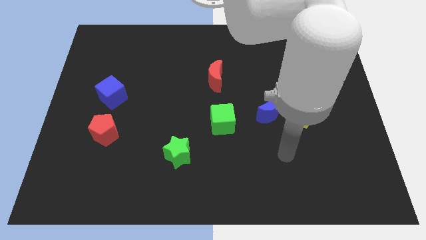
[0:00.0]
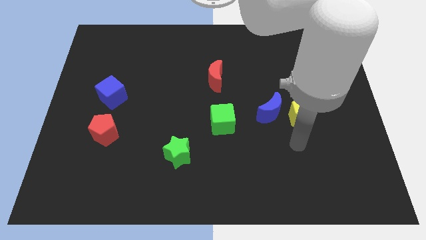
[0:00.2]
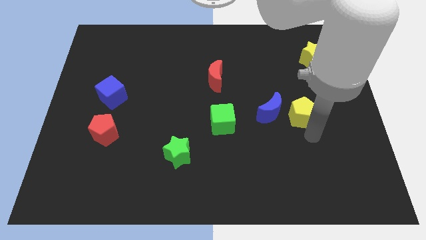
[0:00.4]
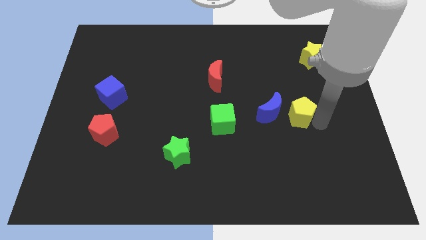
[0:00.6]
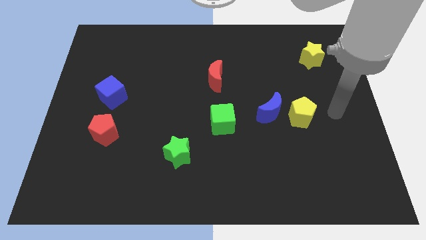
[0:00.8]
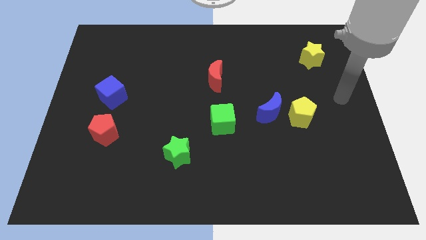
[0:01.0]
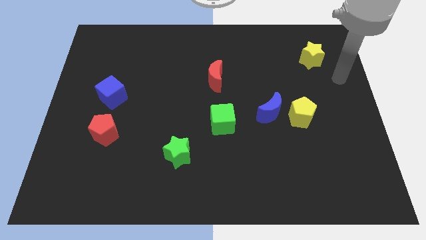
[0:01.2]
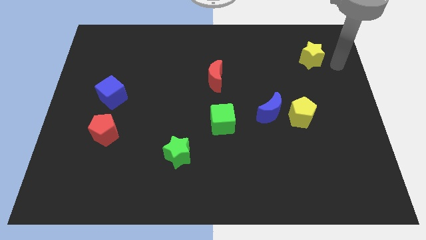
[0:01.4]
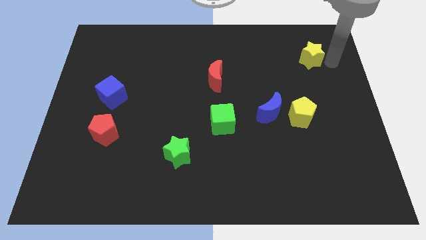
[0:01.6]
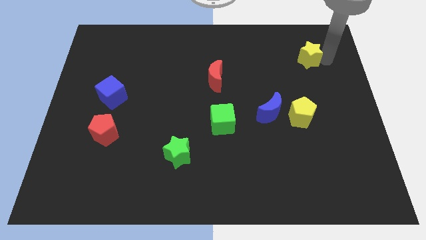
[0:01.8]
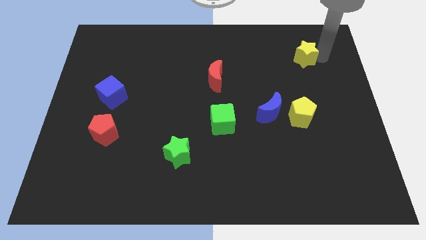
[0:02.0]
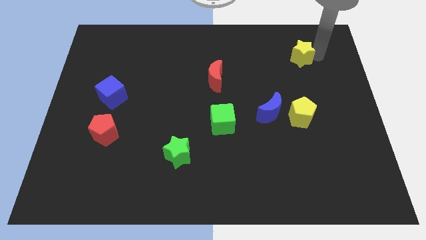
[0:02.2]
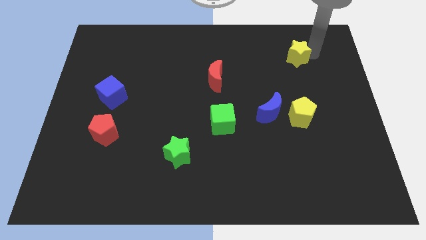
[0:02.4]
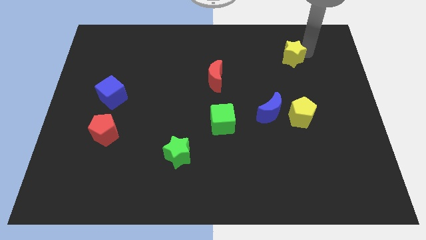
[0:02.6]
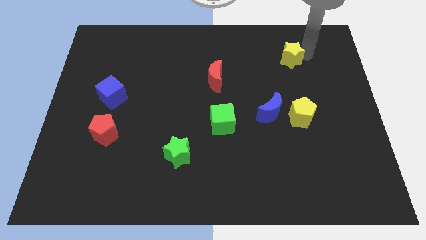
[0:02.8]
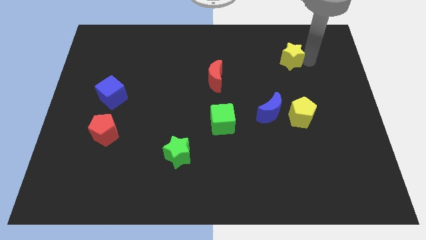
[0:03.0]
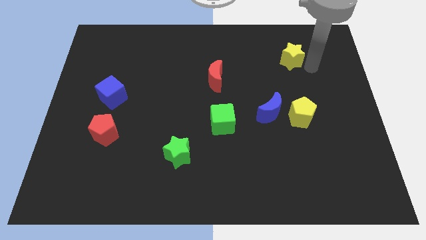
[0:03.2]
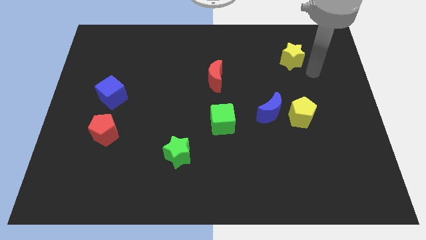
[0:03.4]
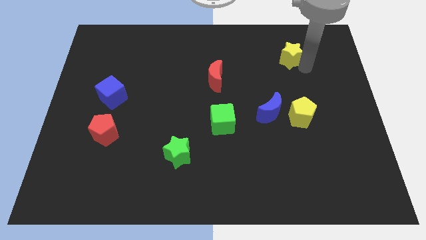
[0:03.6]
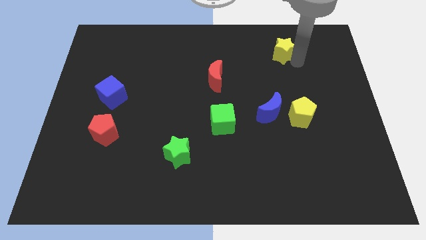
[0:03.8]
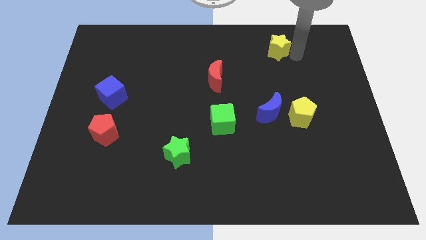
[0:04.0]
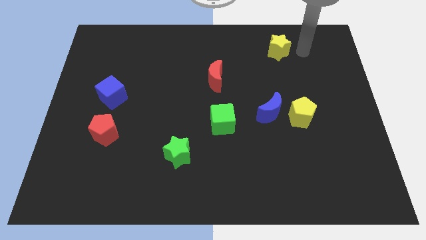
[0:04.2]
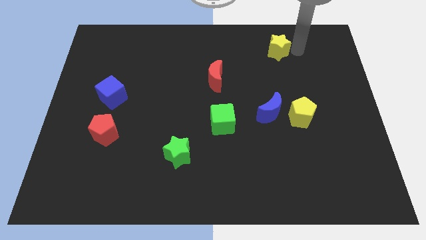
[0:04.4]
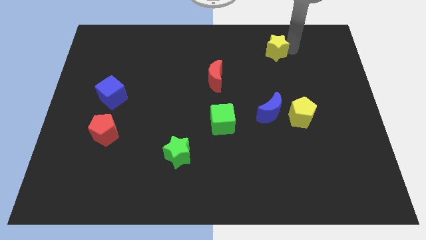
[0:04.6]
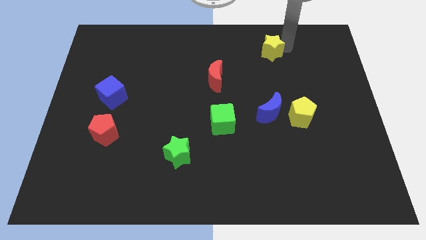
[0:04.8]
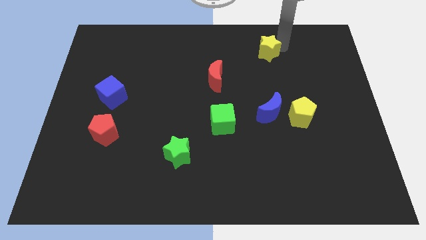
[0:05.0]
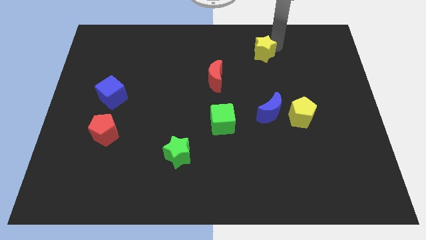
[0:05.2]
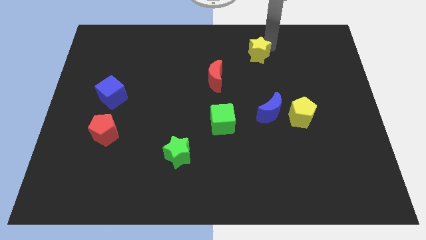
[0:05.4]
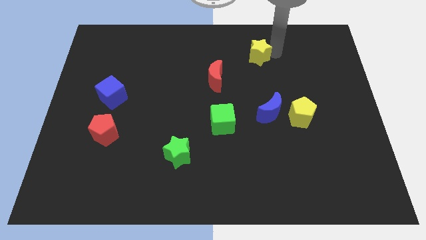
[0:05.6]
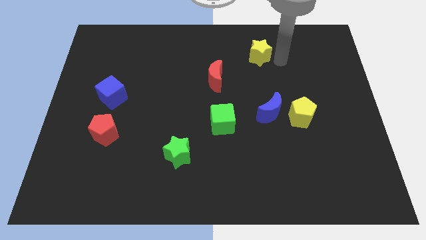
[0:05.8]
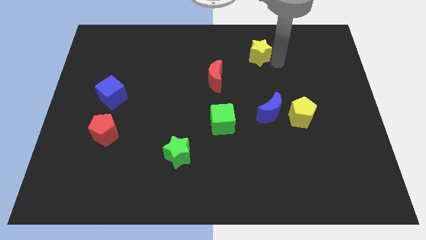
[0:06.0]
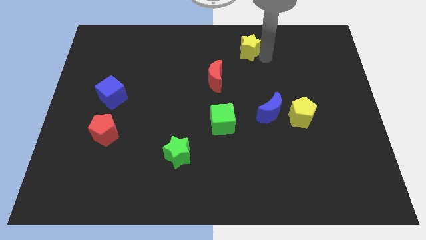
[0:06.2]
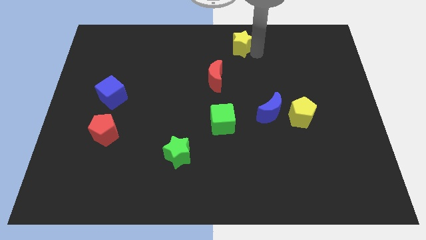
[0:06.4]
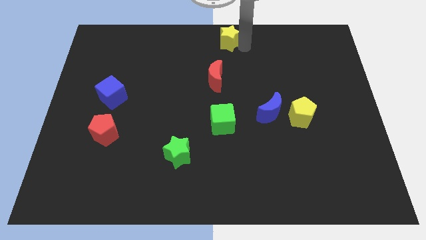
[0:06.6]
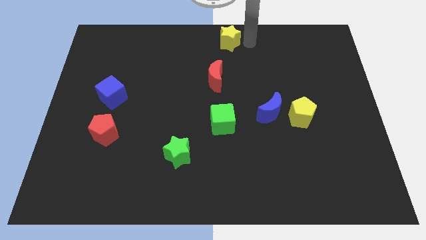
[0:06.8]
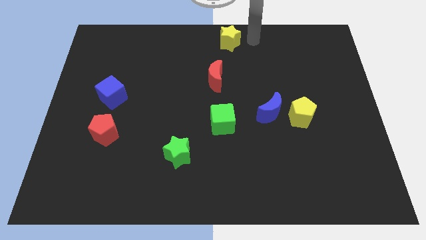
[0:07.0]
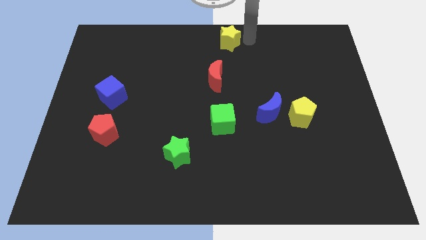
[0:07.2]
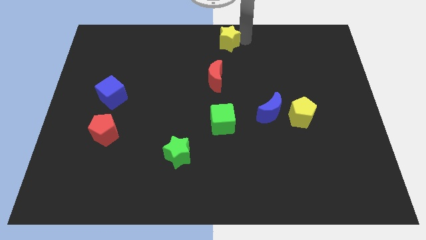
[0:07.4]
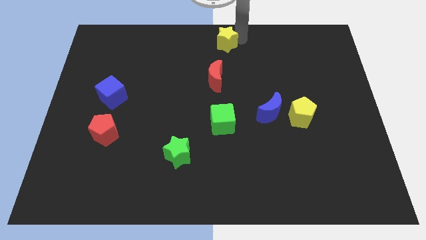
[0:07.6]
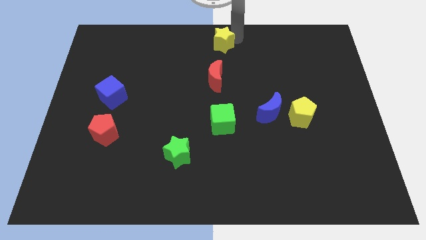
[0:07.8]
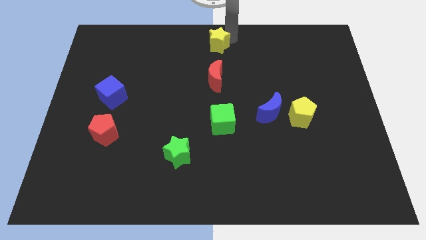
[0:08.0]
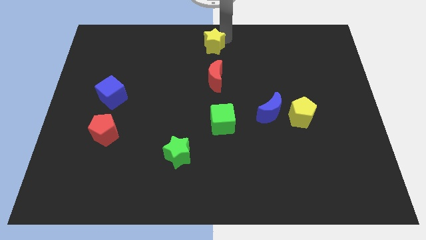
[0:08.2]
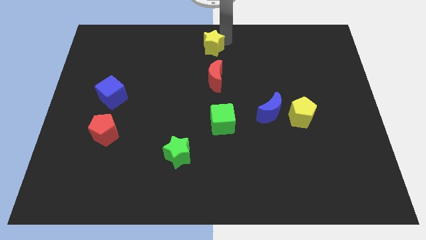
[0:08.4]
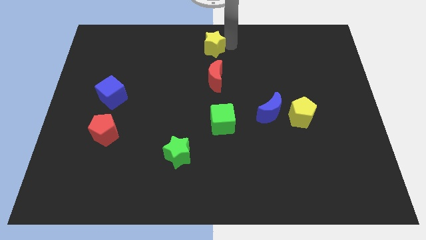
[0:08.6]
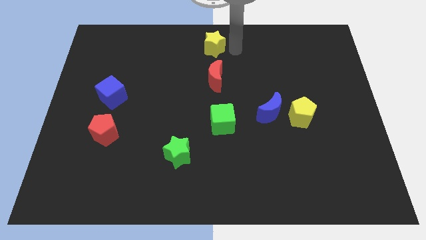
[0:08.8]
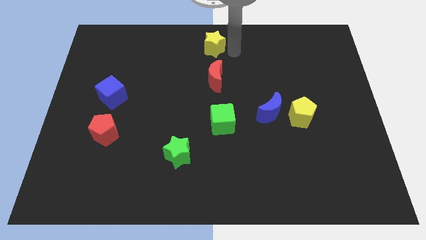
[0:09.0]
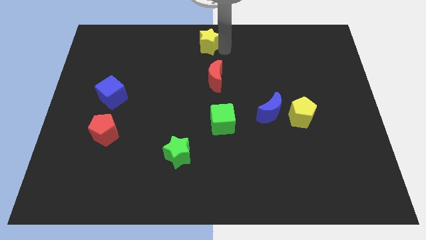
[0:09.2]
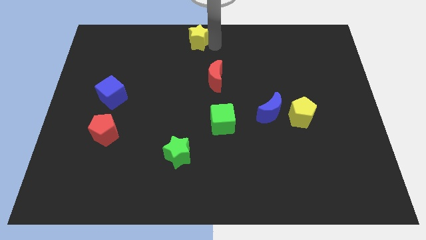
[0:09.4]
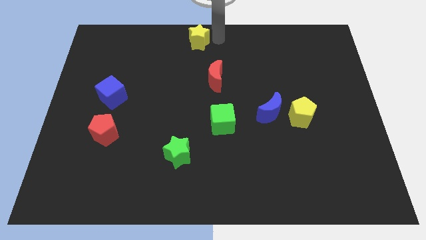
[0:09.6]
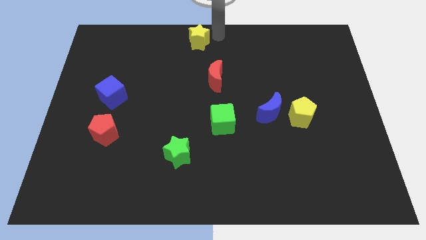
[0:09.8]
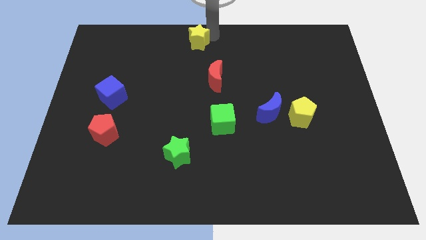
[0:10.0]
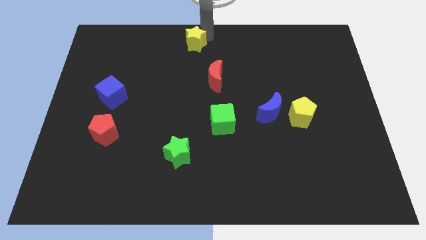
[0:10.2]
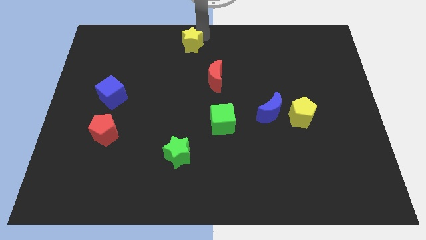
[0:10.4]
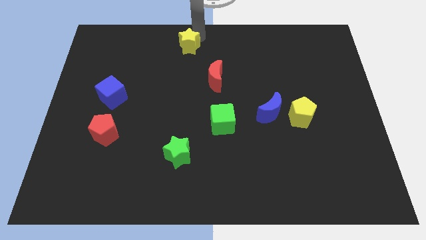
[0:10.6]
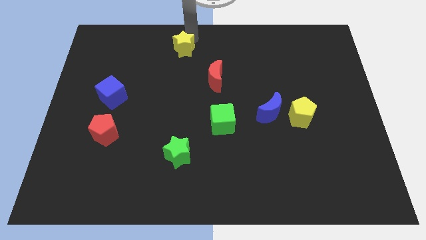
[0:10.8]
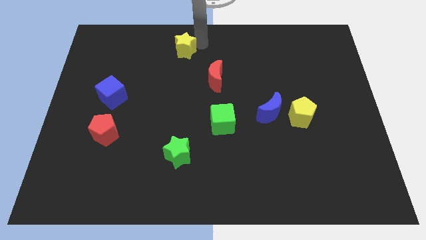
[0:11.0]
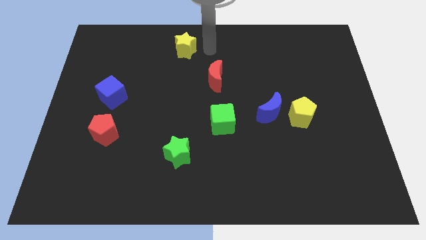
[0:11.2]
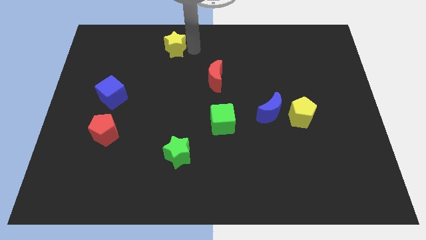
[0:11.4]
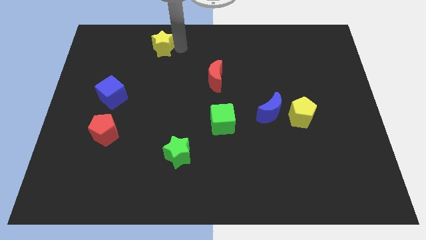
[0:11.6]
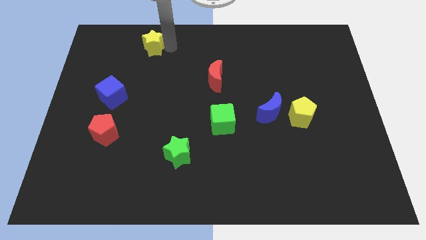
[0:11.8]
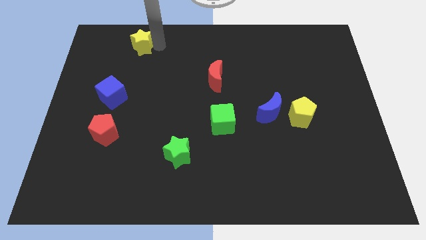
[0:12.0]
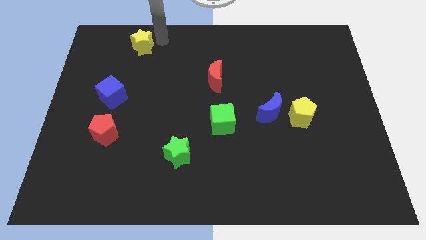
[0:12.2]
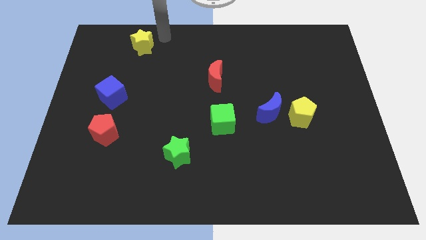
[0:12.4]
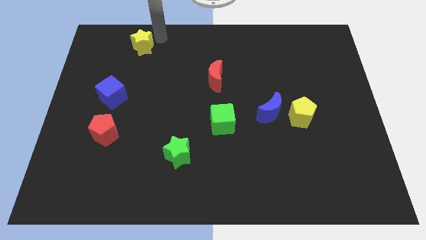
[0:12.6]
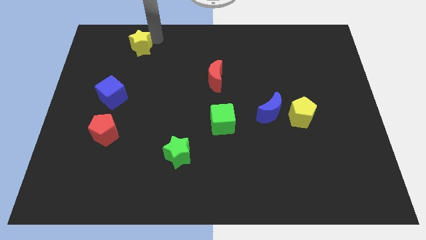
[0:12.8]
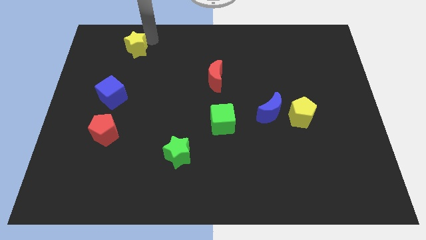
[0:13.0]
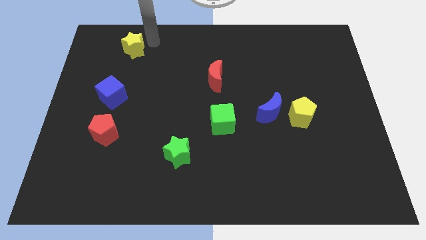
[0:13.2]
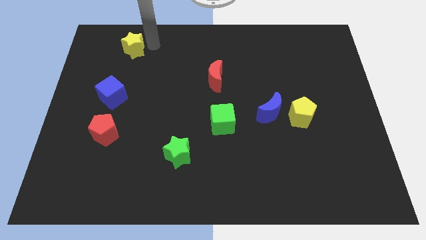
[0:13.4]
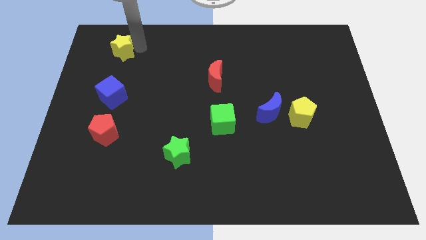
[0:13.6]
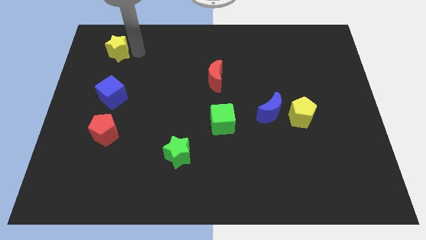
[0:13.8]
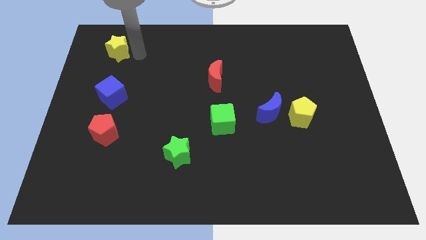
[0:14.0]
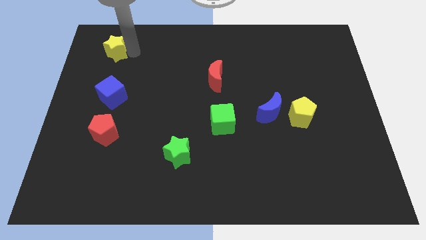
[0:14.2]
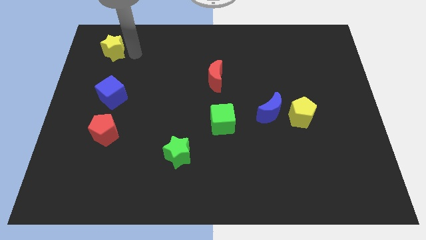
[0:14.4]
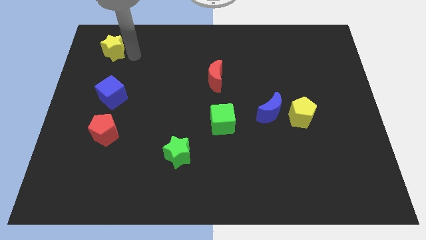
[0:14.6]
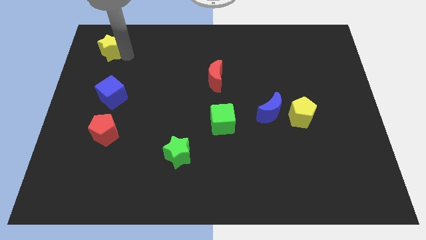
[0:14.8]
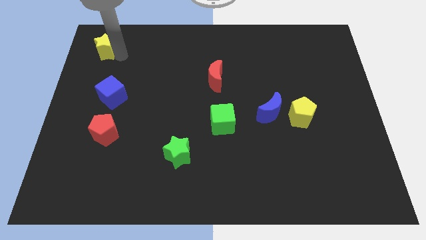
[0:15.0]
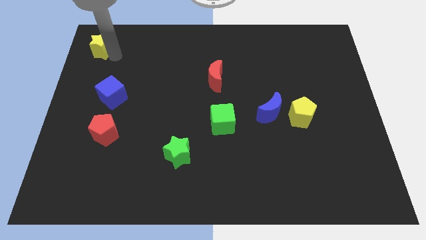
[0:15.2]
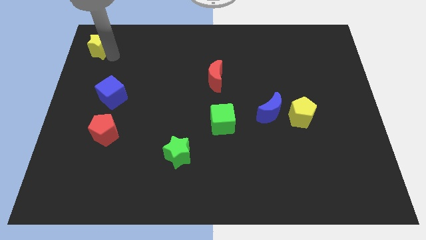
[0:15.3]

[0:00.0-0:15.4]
move the yellow star to the top left
